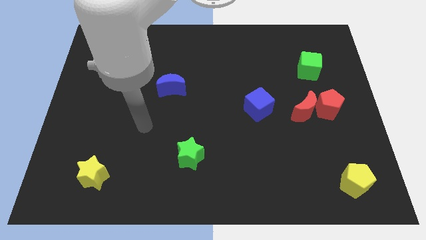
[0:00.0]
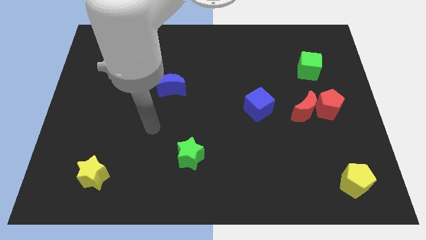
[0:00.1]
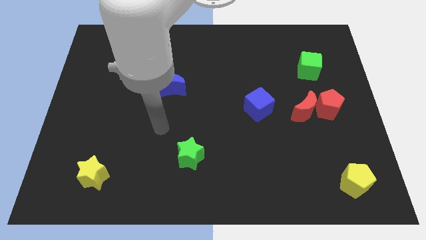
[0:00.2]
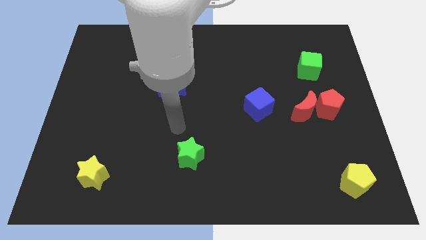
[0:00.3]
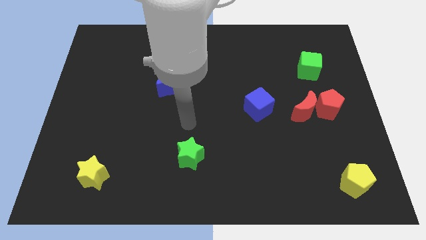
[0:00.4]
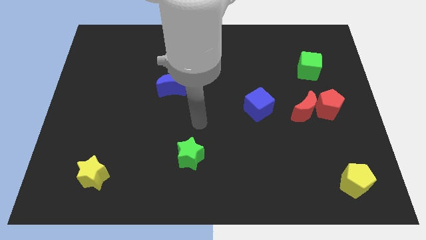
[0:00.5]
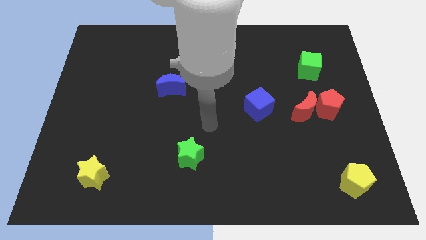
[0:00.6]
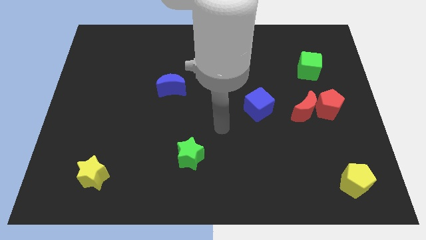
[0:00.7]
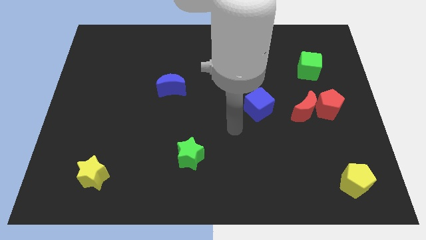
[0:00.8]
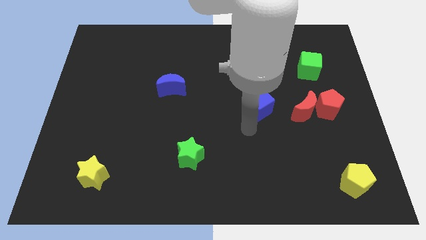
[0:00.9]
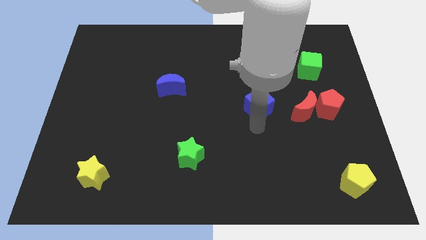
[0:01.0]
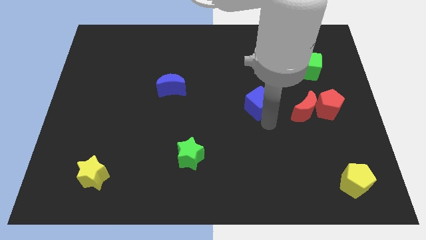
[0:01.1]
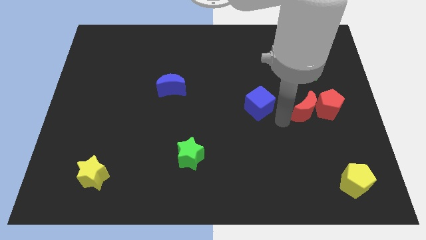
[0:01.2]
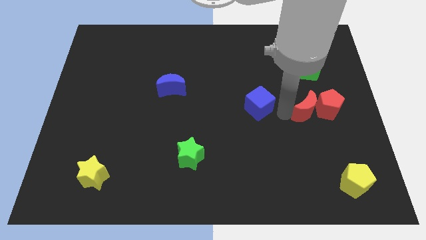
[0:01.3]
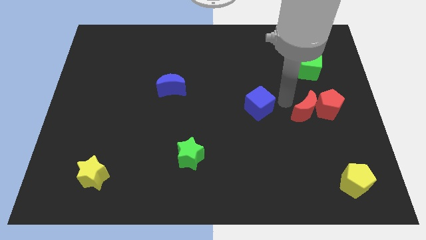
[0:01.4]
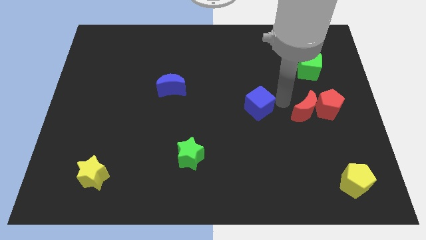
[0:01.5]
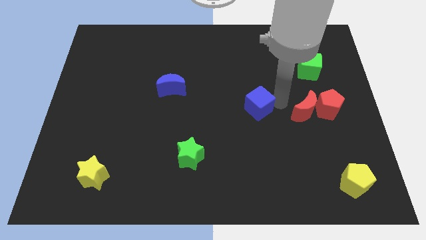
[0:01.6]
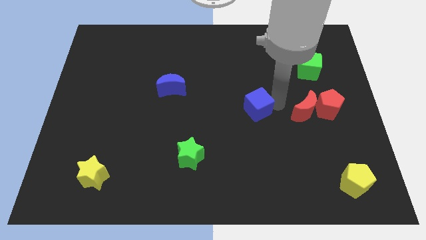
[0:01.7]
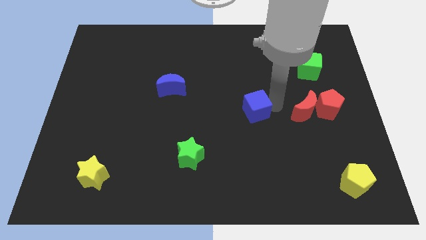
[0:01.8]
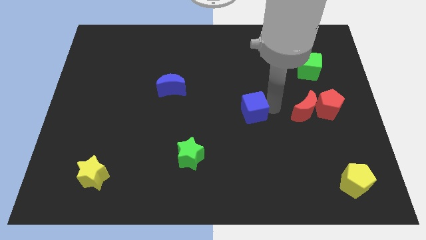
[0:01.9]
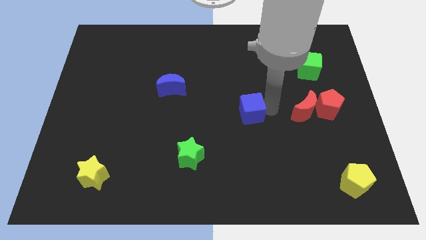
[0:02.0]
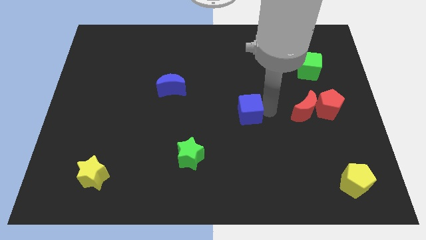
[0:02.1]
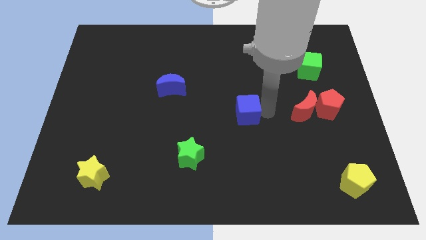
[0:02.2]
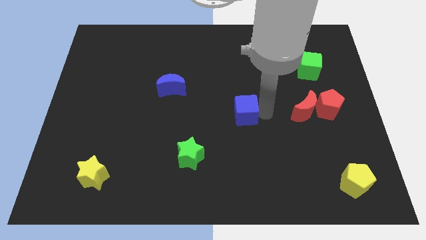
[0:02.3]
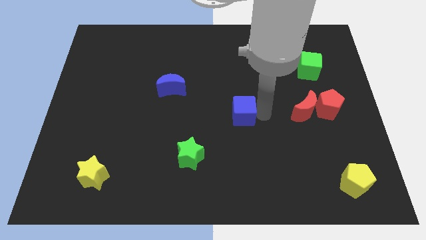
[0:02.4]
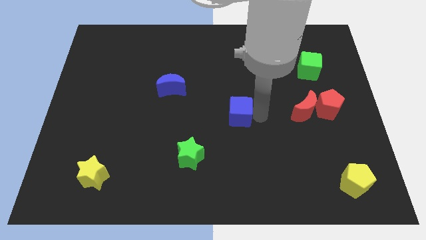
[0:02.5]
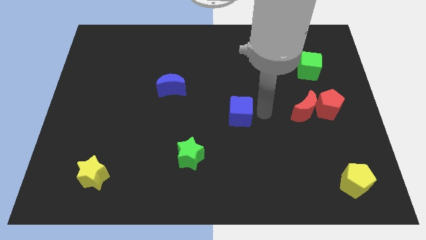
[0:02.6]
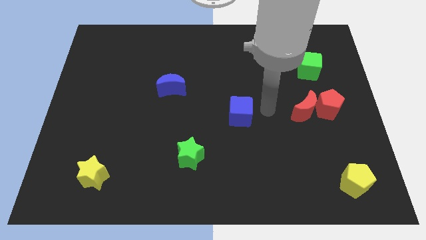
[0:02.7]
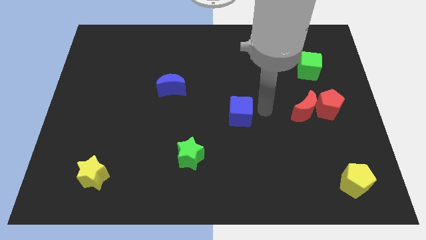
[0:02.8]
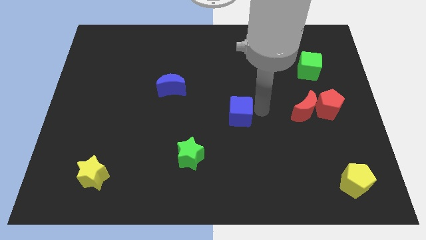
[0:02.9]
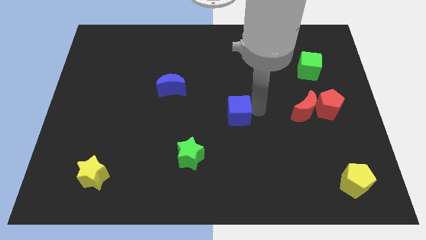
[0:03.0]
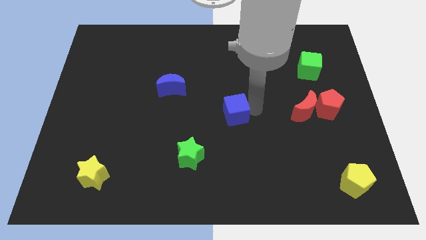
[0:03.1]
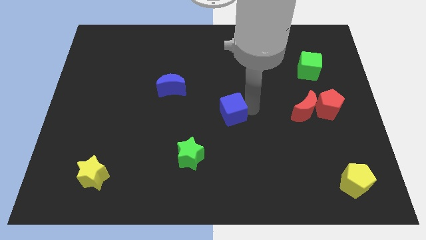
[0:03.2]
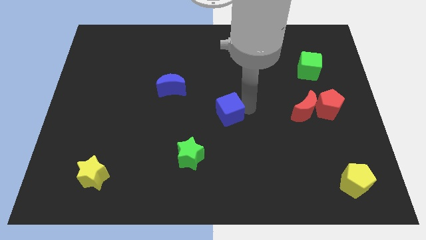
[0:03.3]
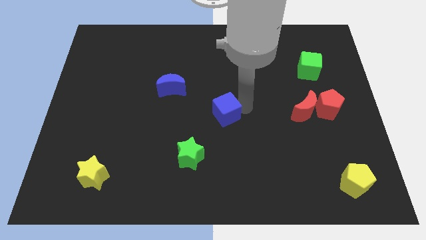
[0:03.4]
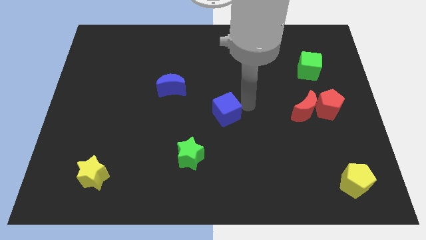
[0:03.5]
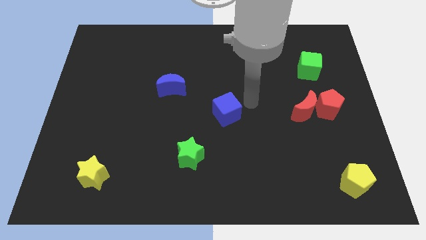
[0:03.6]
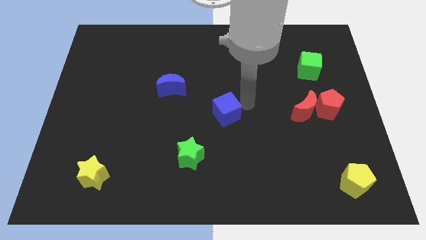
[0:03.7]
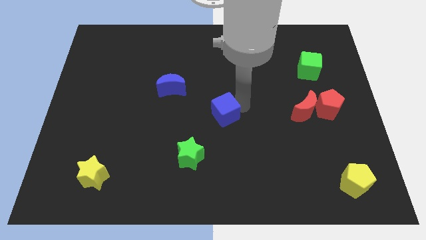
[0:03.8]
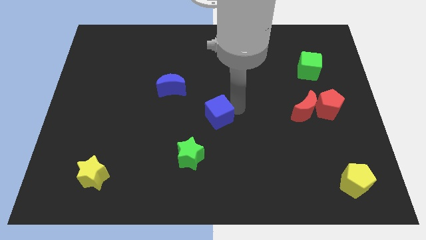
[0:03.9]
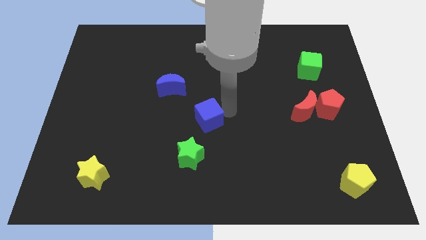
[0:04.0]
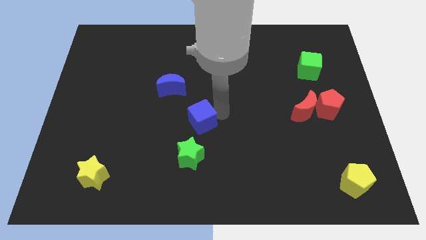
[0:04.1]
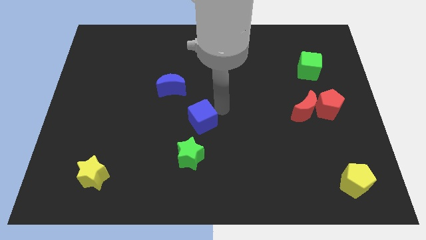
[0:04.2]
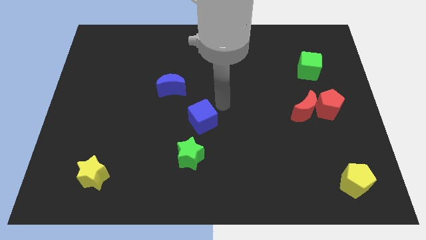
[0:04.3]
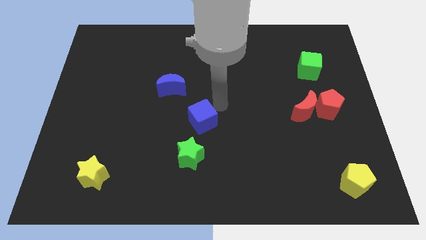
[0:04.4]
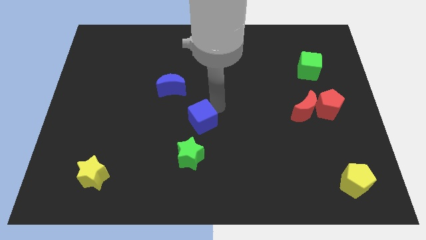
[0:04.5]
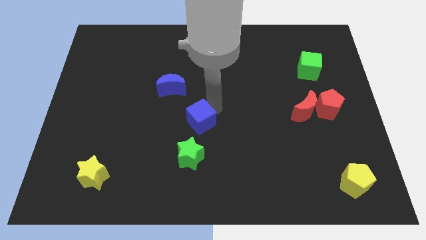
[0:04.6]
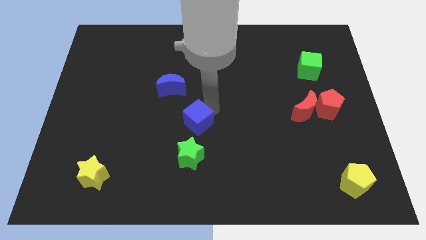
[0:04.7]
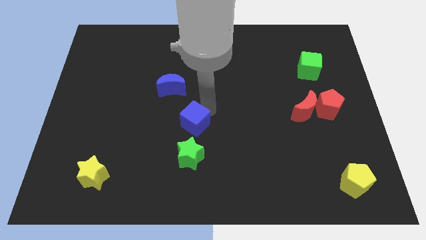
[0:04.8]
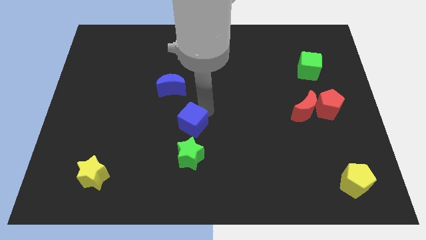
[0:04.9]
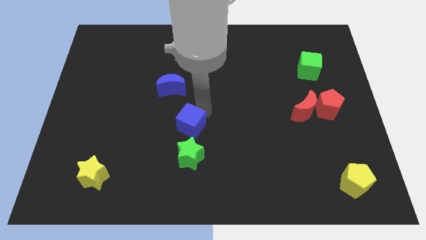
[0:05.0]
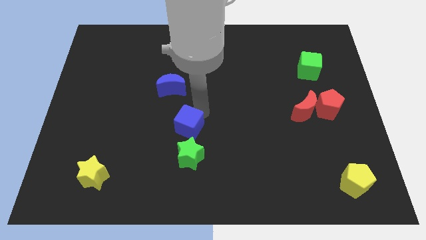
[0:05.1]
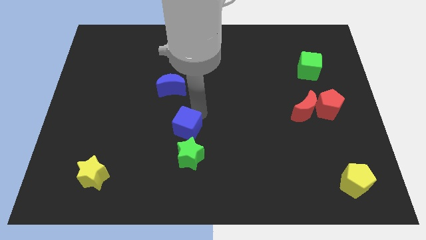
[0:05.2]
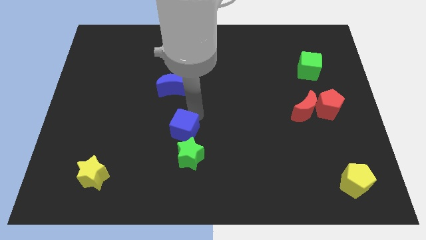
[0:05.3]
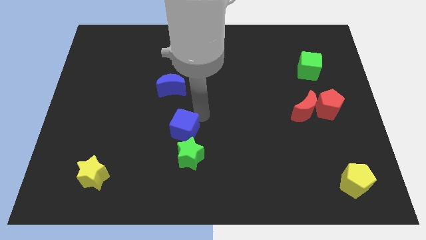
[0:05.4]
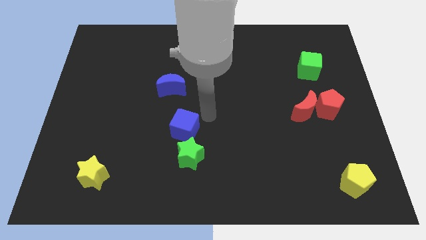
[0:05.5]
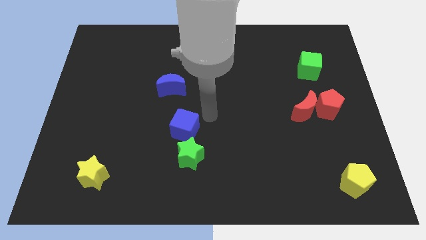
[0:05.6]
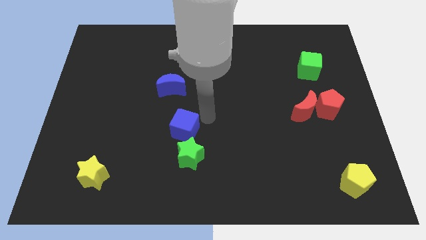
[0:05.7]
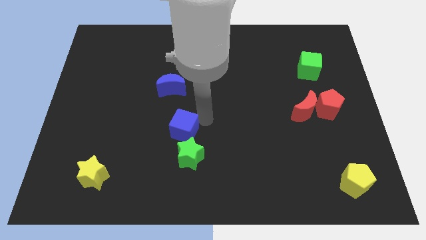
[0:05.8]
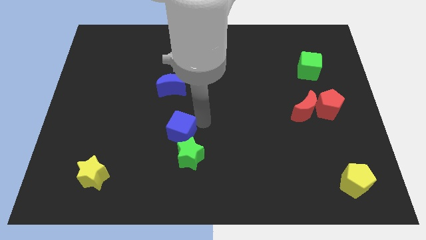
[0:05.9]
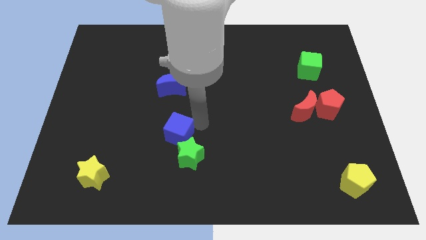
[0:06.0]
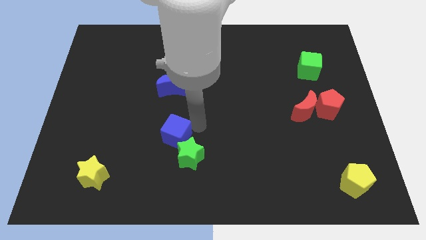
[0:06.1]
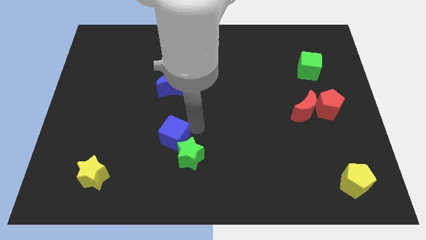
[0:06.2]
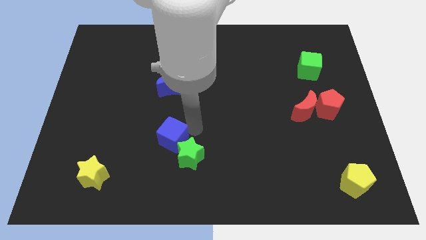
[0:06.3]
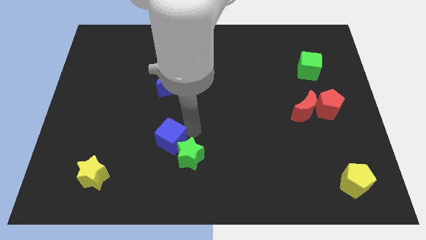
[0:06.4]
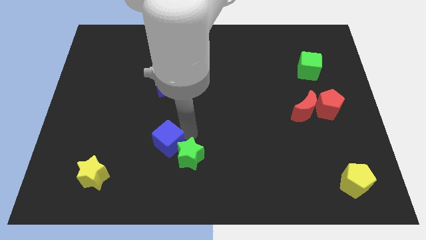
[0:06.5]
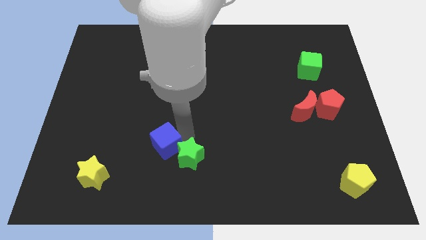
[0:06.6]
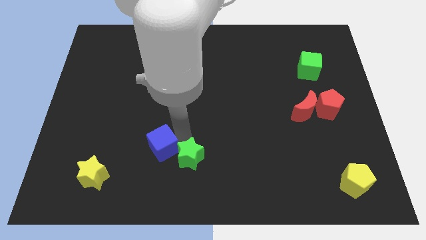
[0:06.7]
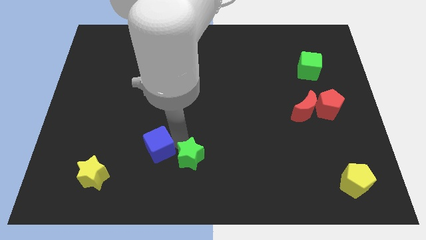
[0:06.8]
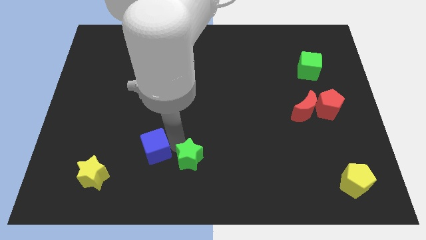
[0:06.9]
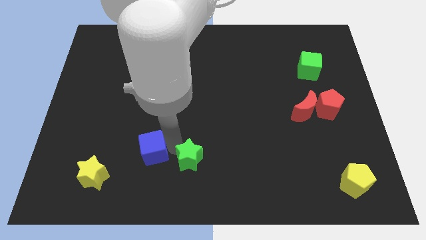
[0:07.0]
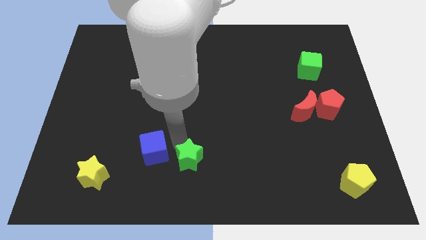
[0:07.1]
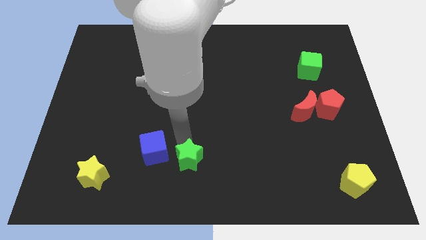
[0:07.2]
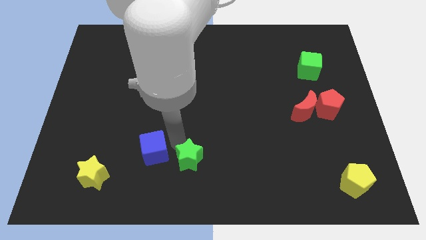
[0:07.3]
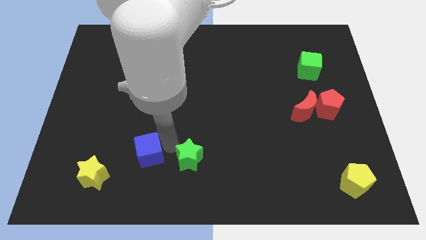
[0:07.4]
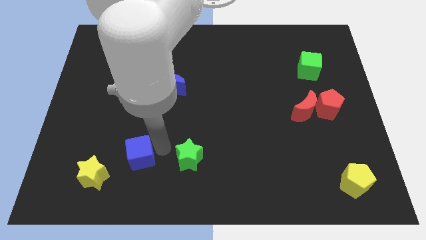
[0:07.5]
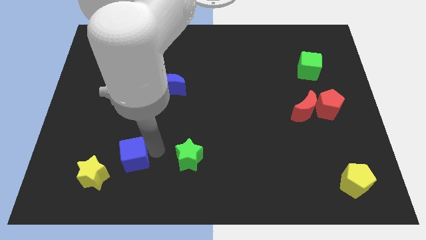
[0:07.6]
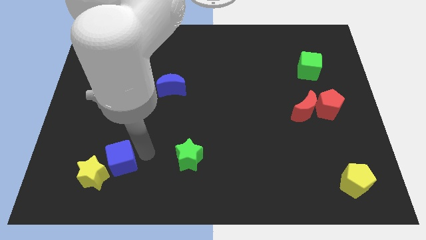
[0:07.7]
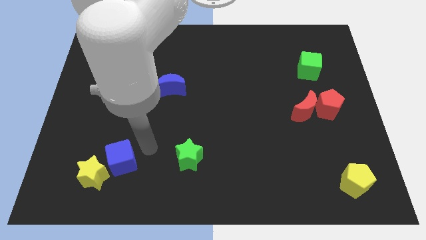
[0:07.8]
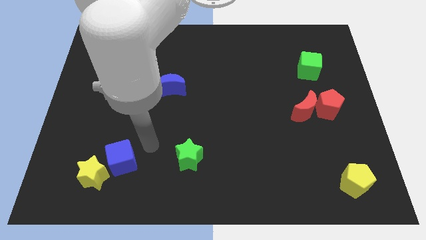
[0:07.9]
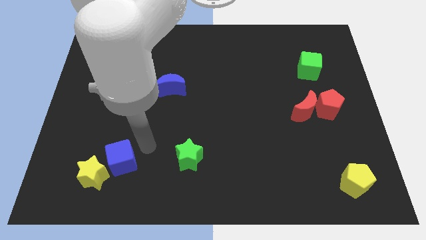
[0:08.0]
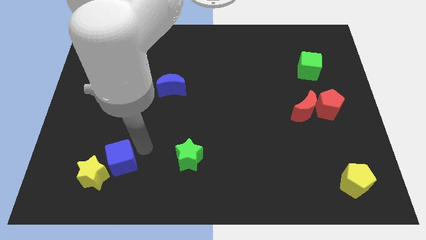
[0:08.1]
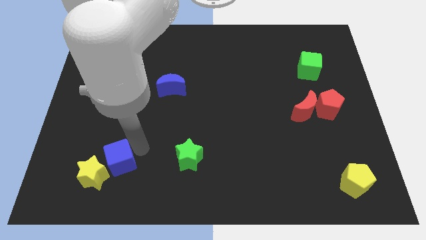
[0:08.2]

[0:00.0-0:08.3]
slide the blue cube to the yellow star
